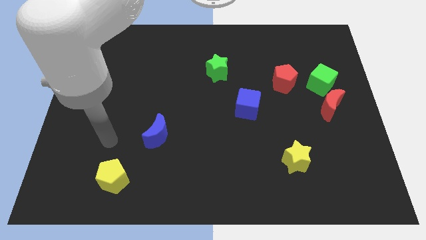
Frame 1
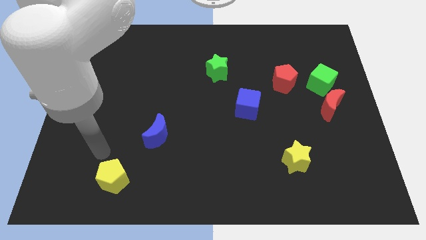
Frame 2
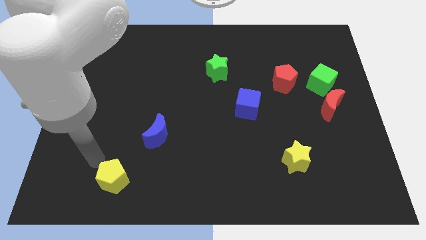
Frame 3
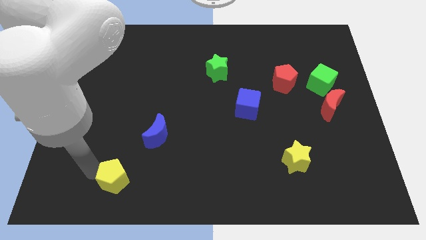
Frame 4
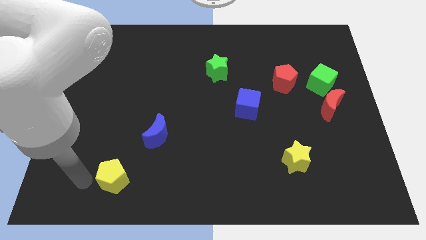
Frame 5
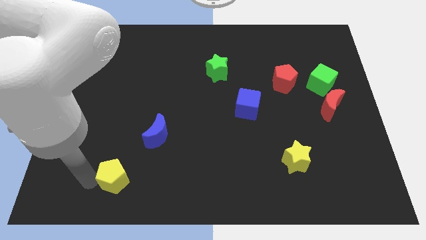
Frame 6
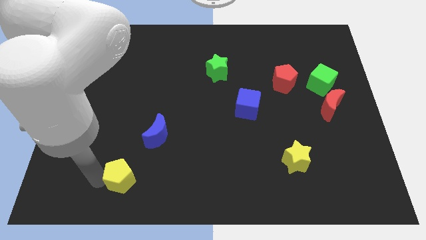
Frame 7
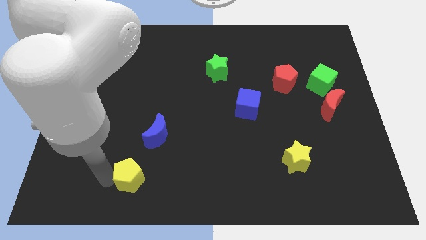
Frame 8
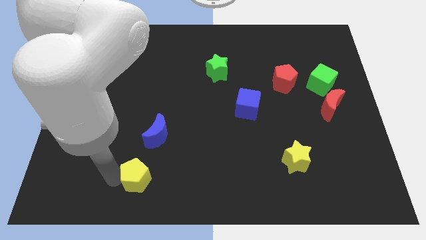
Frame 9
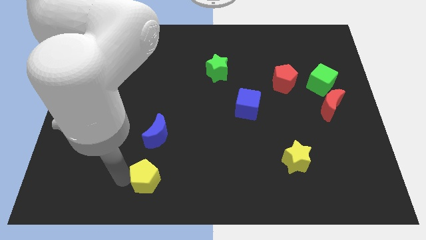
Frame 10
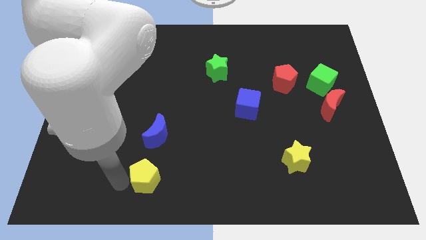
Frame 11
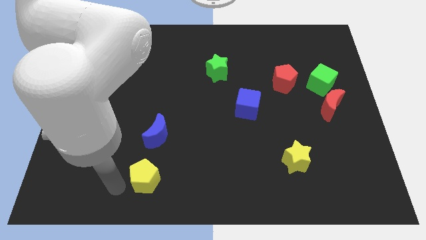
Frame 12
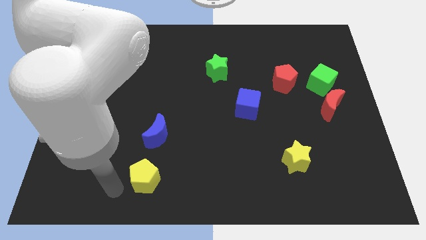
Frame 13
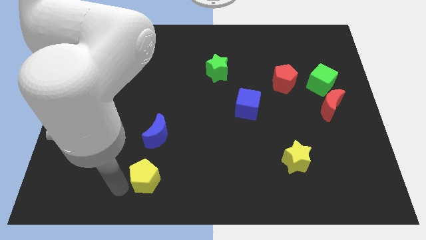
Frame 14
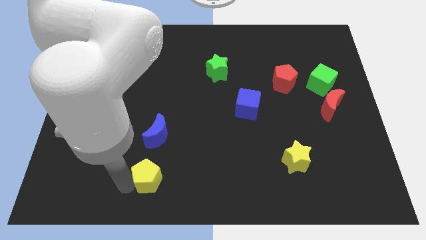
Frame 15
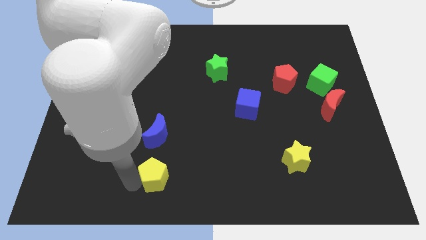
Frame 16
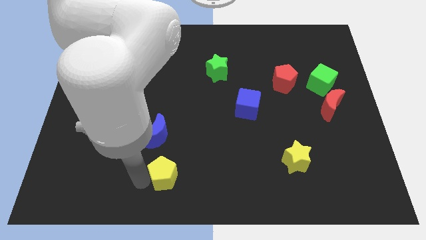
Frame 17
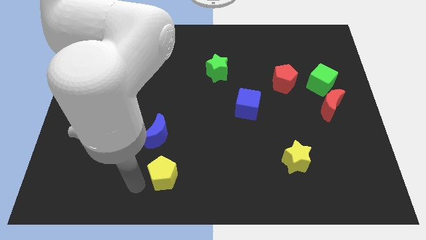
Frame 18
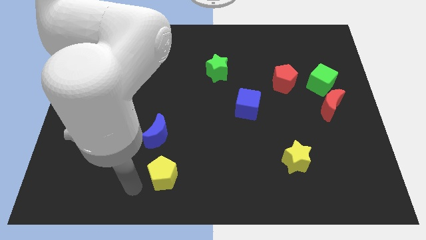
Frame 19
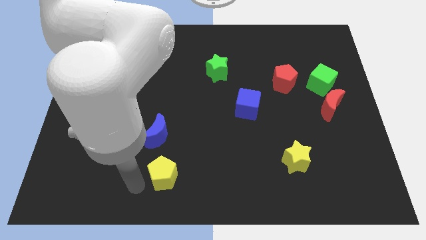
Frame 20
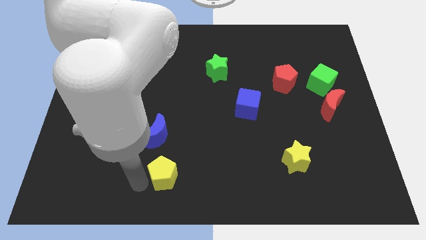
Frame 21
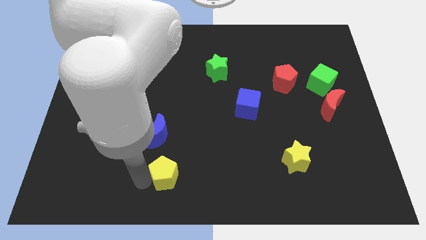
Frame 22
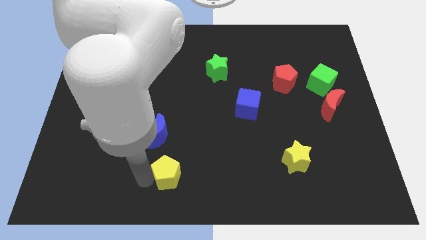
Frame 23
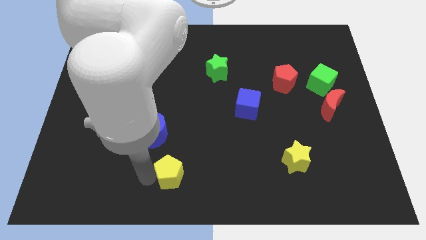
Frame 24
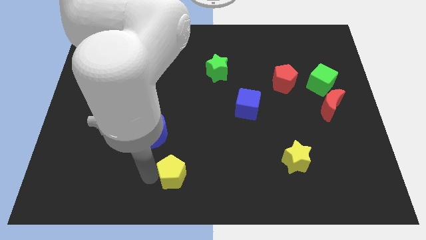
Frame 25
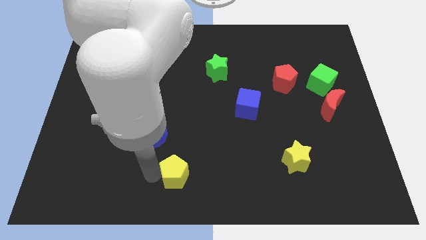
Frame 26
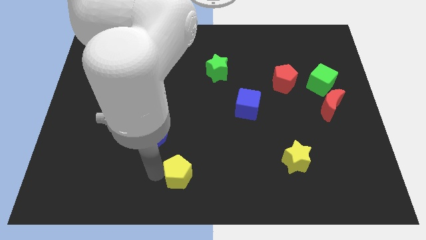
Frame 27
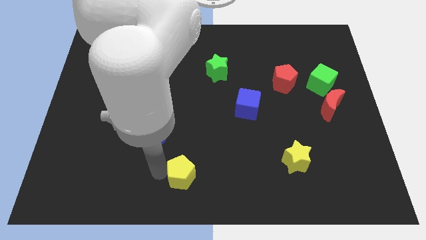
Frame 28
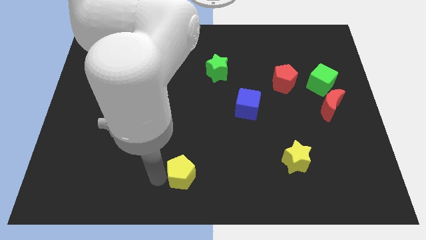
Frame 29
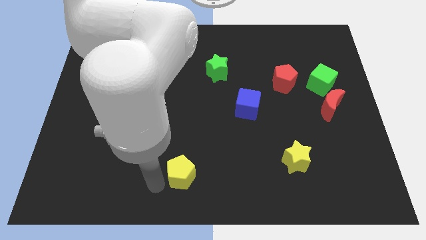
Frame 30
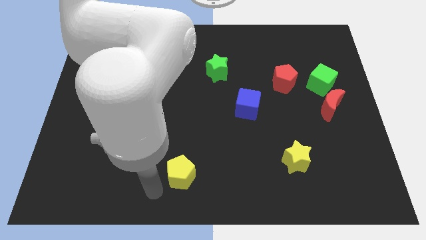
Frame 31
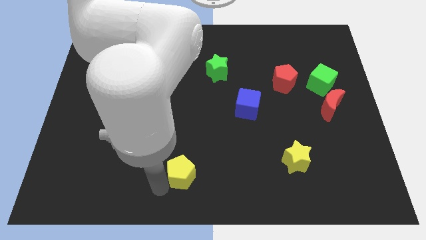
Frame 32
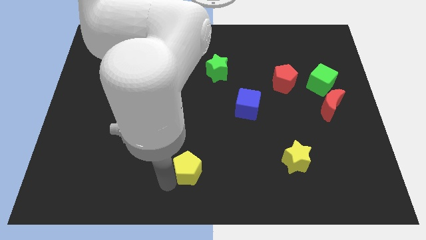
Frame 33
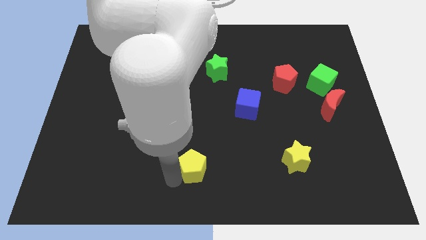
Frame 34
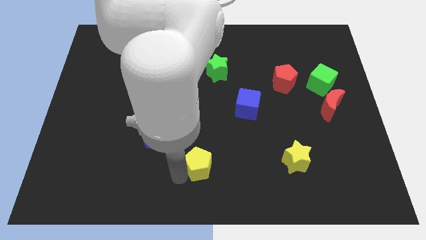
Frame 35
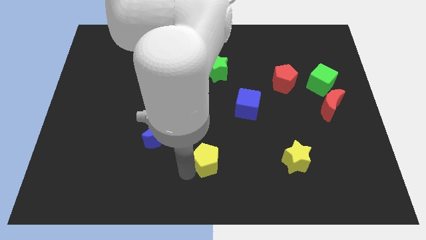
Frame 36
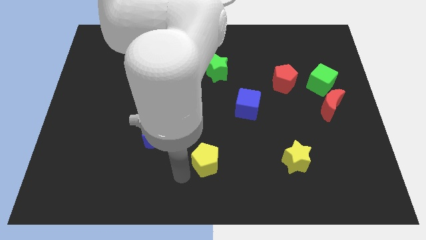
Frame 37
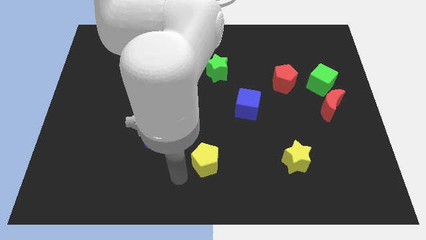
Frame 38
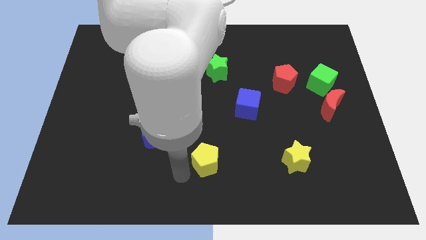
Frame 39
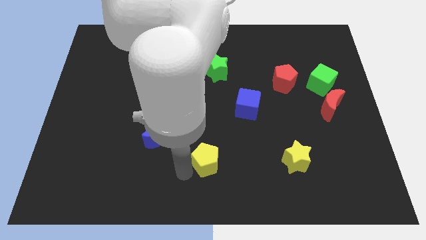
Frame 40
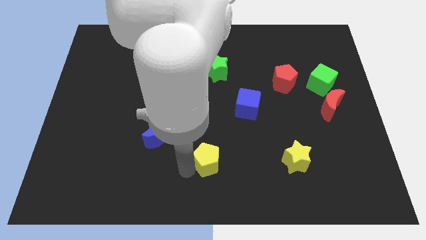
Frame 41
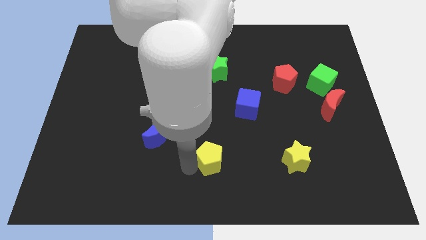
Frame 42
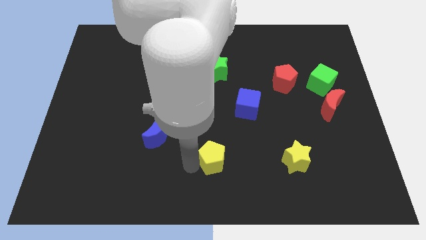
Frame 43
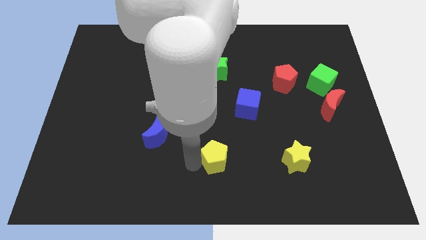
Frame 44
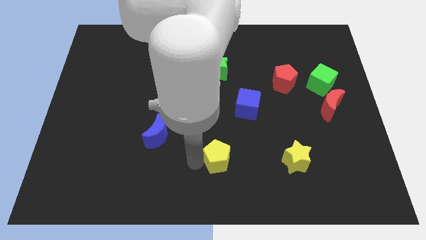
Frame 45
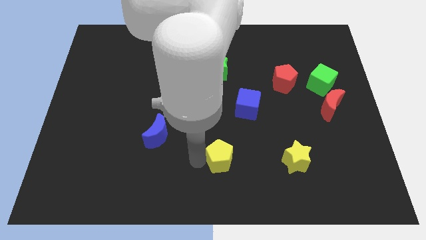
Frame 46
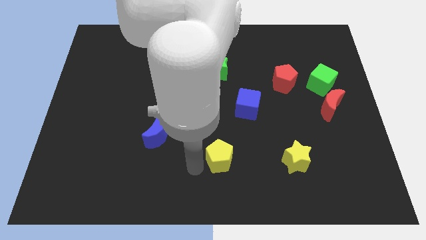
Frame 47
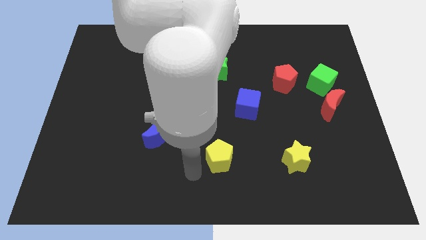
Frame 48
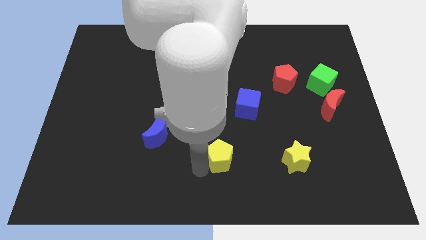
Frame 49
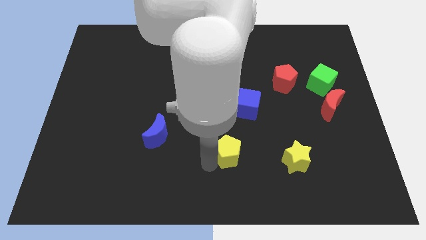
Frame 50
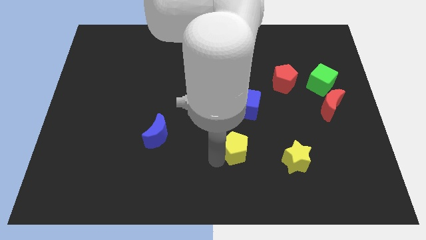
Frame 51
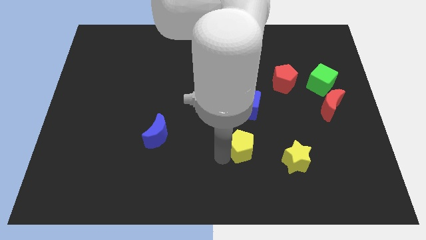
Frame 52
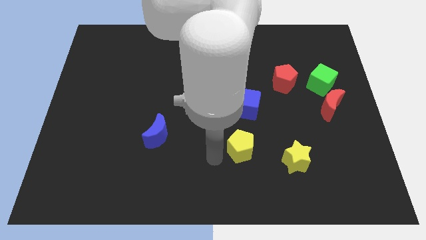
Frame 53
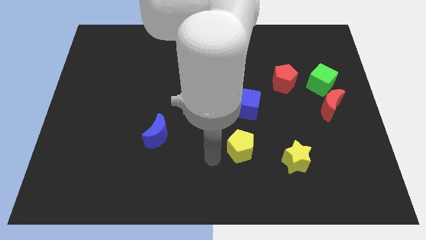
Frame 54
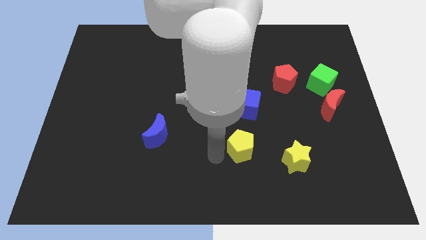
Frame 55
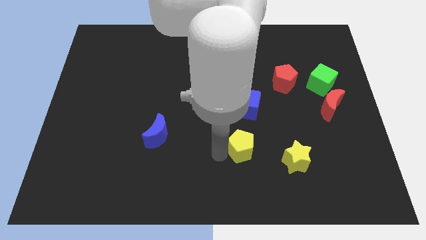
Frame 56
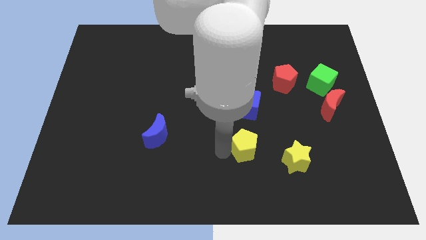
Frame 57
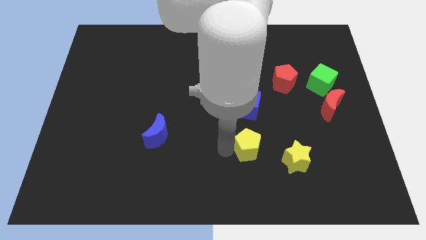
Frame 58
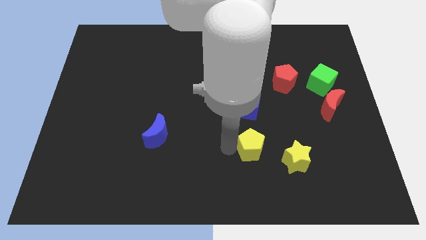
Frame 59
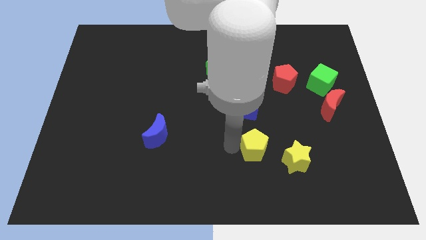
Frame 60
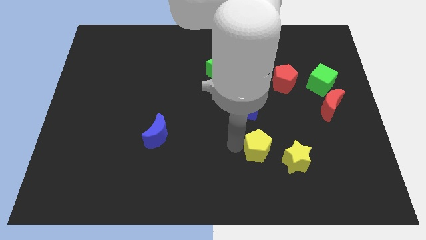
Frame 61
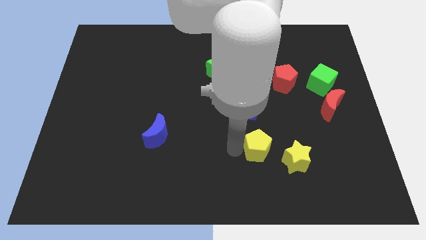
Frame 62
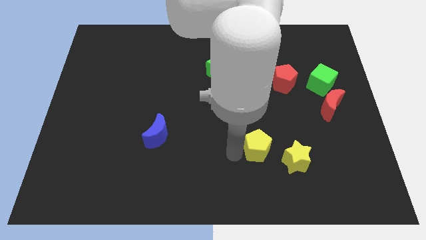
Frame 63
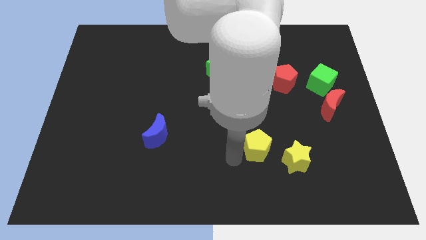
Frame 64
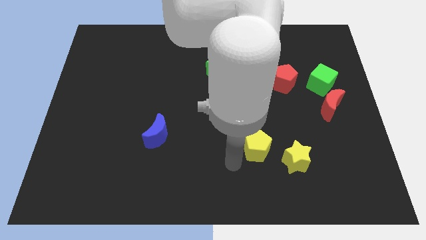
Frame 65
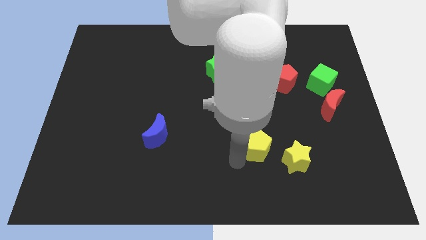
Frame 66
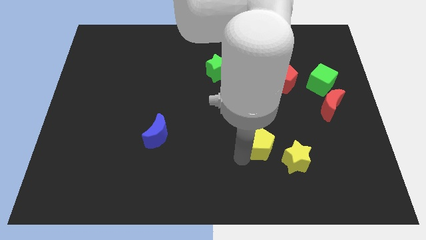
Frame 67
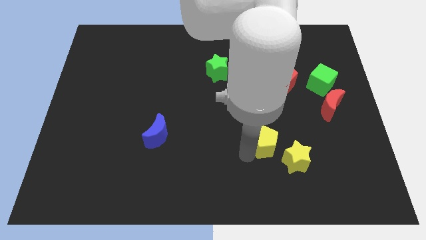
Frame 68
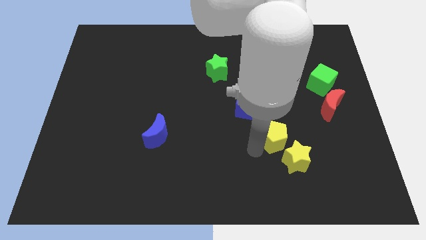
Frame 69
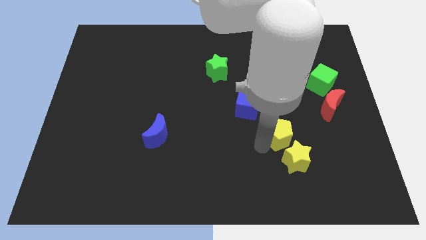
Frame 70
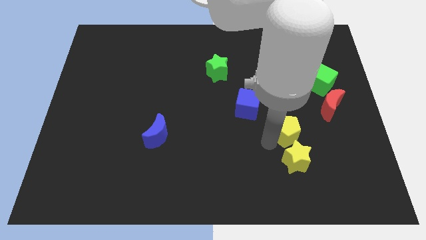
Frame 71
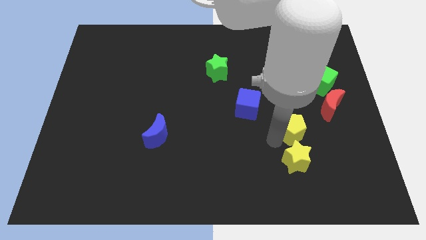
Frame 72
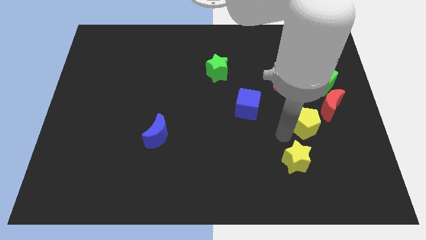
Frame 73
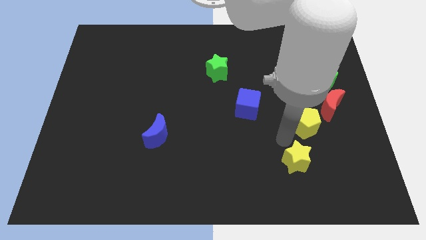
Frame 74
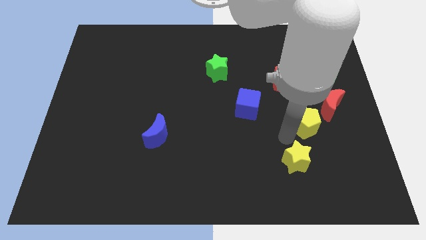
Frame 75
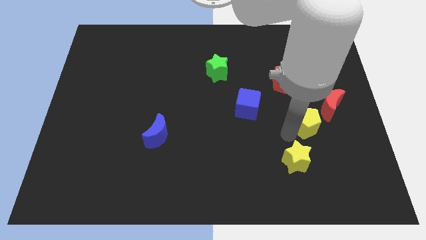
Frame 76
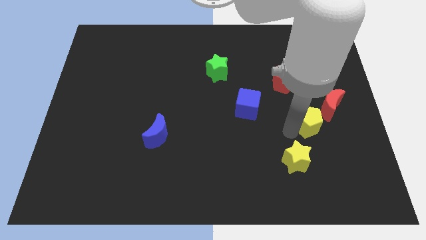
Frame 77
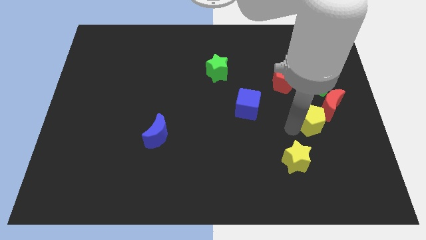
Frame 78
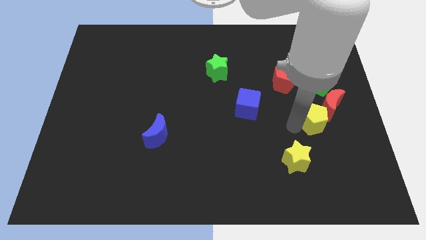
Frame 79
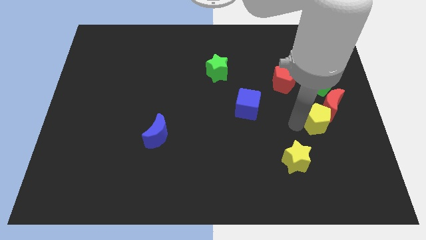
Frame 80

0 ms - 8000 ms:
move the yellow pentagon towards the red moon
